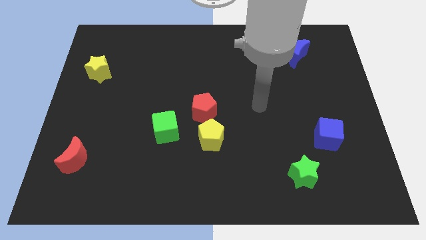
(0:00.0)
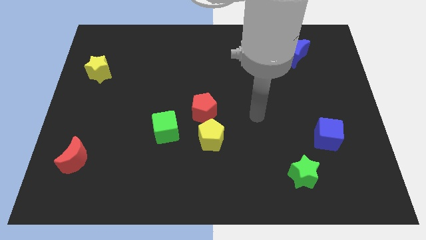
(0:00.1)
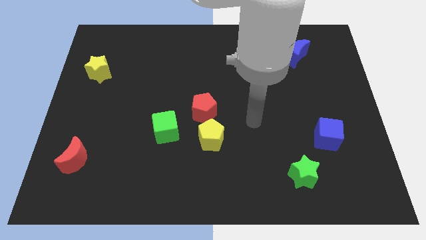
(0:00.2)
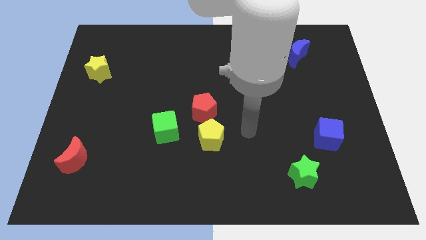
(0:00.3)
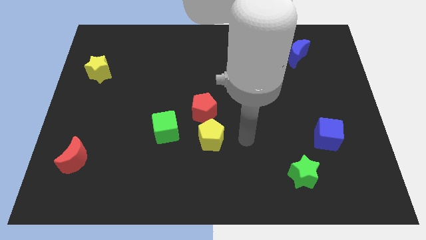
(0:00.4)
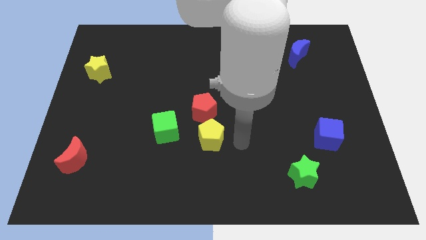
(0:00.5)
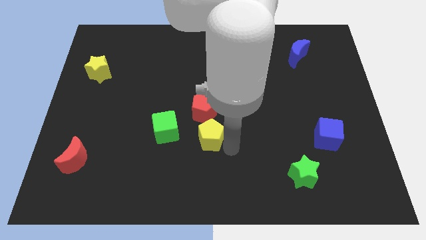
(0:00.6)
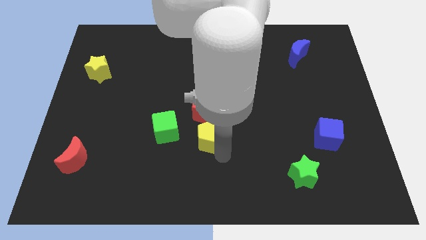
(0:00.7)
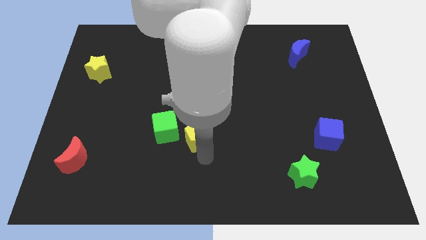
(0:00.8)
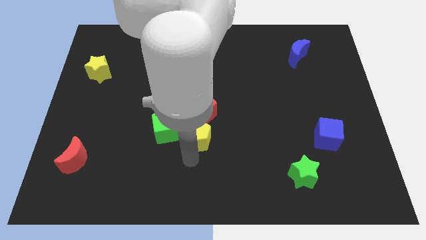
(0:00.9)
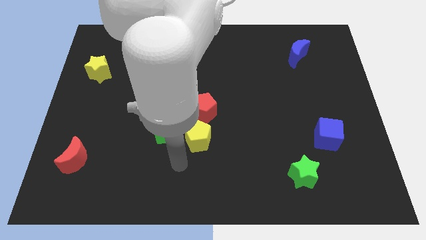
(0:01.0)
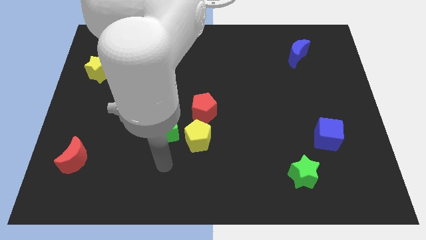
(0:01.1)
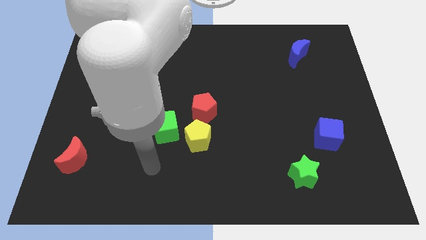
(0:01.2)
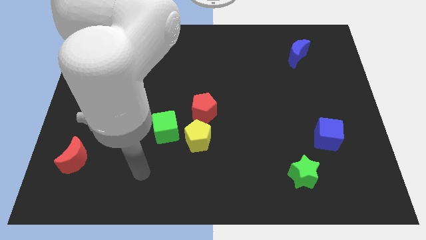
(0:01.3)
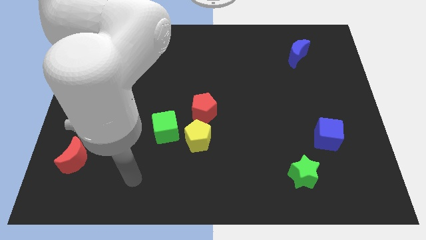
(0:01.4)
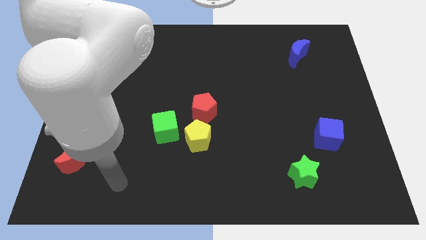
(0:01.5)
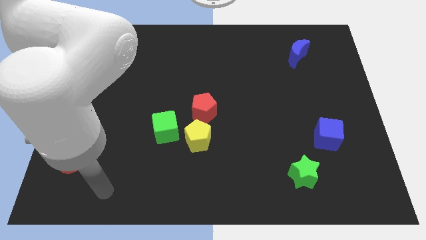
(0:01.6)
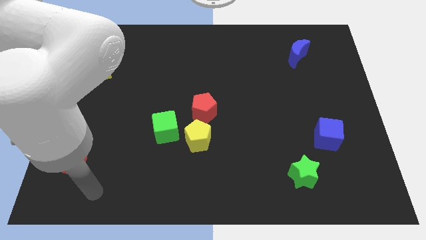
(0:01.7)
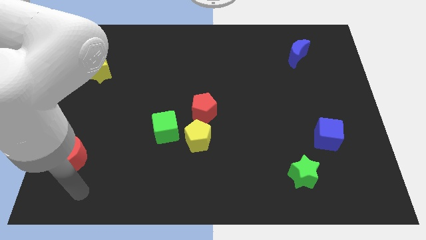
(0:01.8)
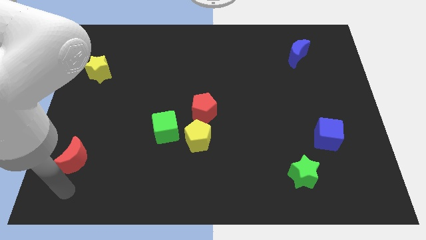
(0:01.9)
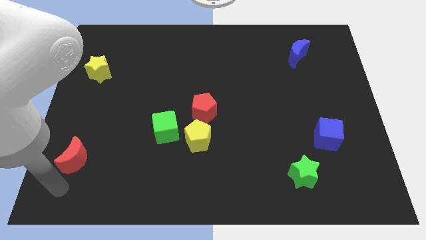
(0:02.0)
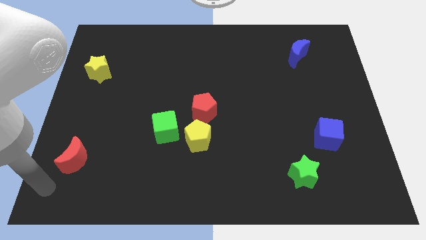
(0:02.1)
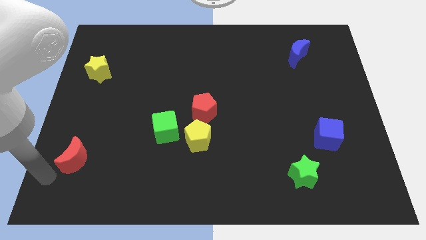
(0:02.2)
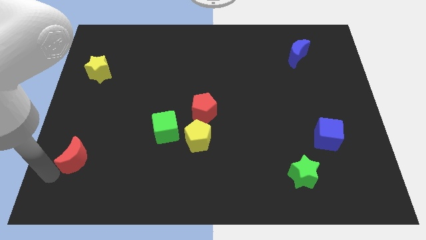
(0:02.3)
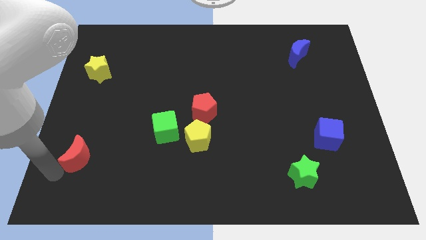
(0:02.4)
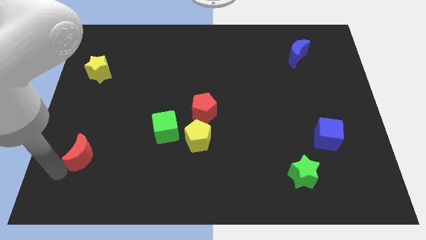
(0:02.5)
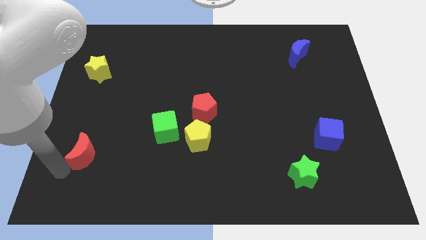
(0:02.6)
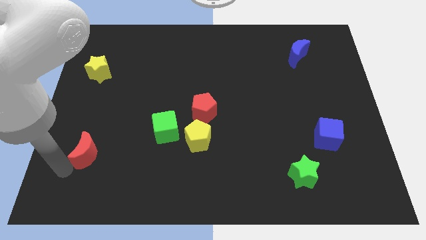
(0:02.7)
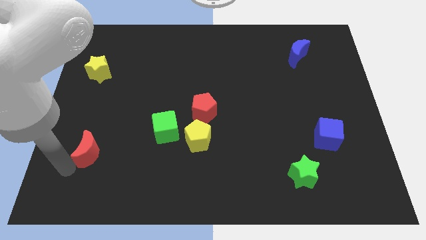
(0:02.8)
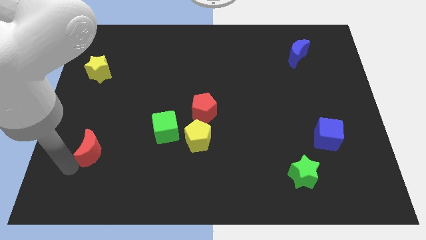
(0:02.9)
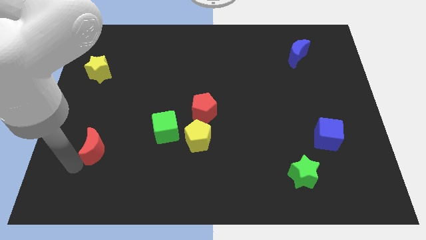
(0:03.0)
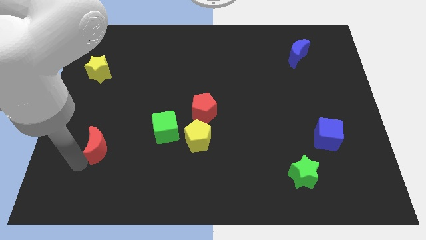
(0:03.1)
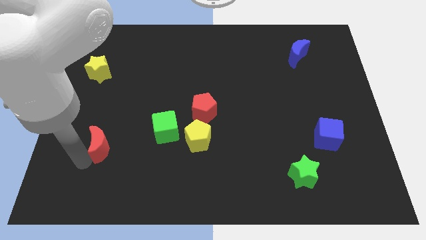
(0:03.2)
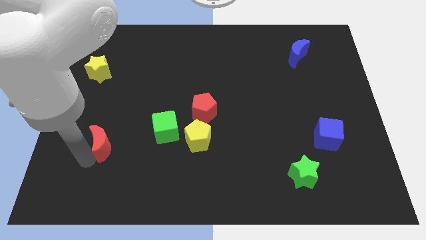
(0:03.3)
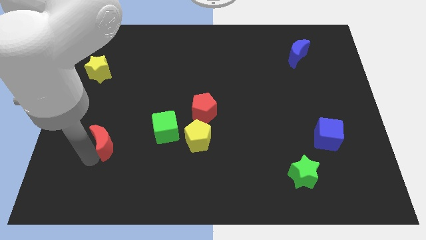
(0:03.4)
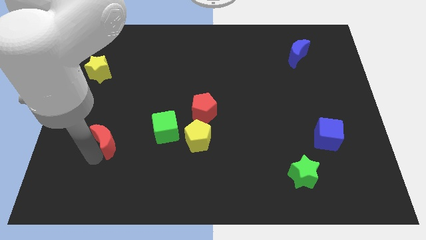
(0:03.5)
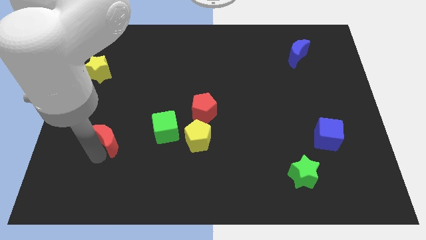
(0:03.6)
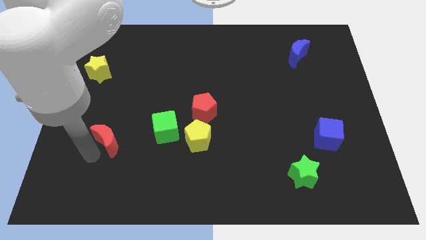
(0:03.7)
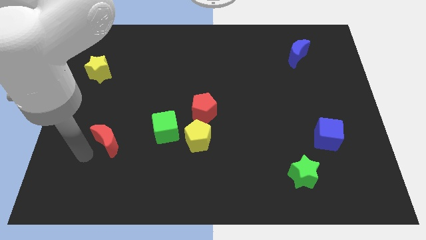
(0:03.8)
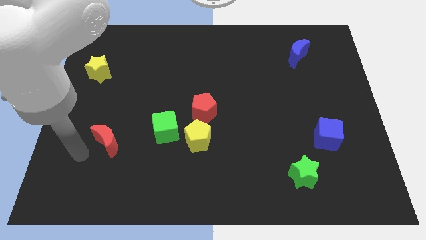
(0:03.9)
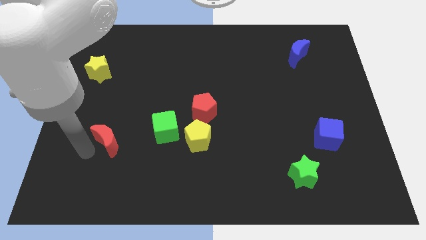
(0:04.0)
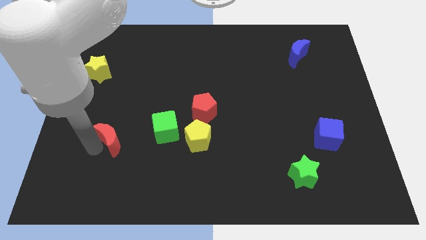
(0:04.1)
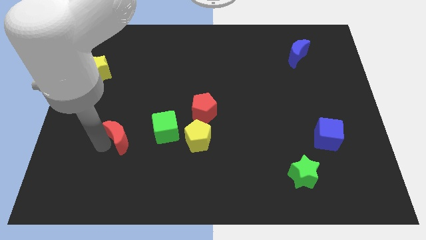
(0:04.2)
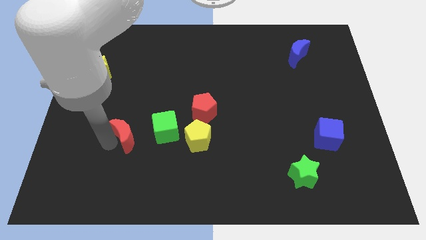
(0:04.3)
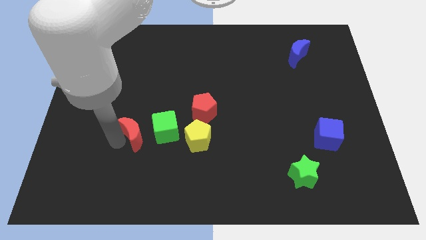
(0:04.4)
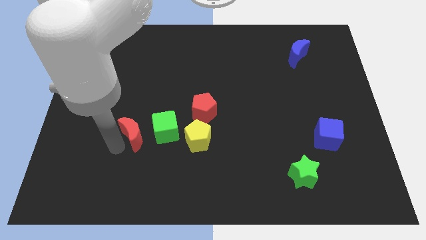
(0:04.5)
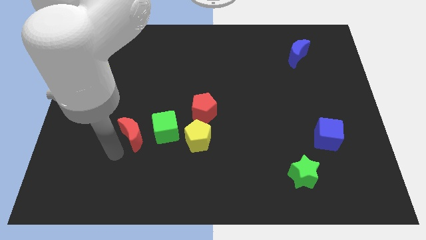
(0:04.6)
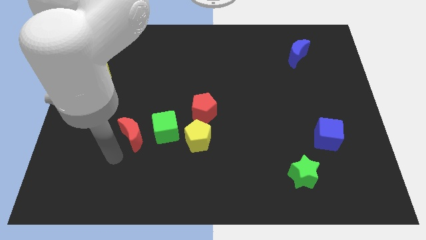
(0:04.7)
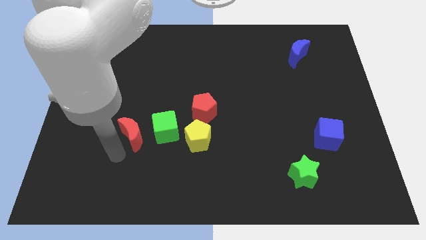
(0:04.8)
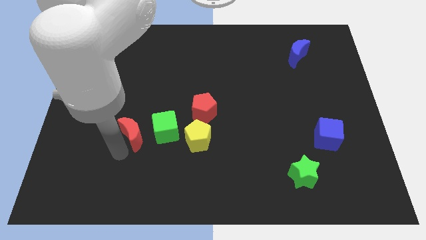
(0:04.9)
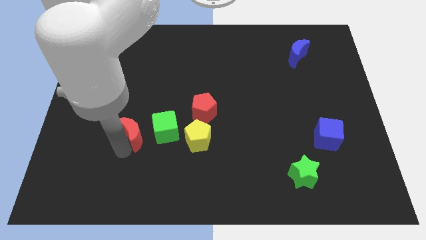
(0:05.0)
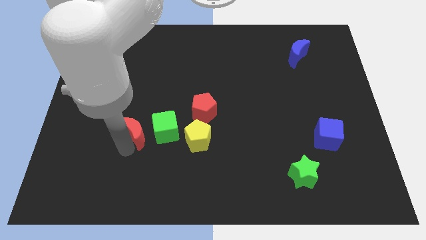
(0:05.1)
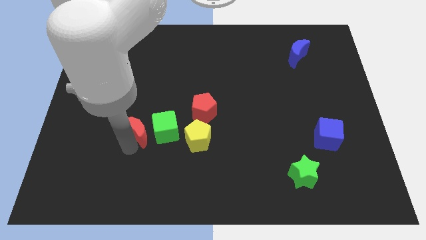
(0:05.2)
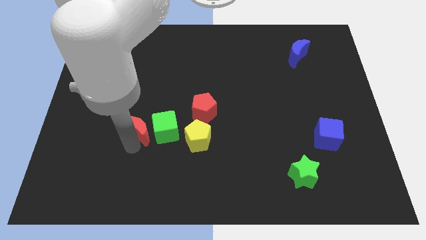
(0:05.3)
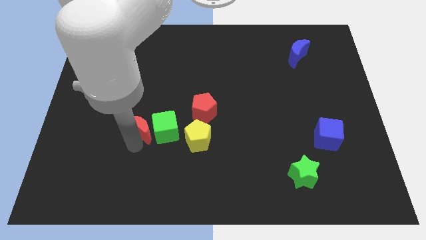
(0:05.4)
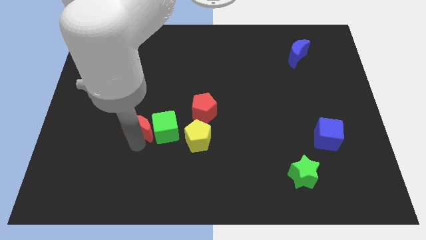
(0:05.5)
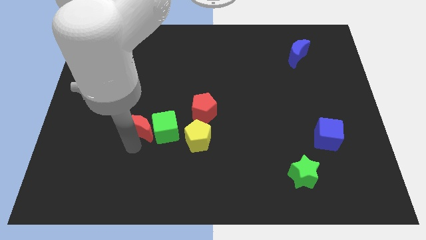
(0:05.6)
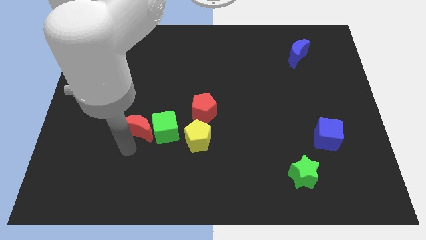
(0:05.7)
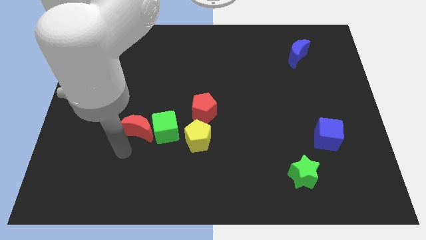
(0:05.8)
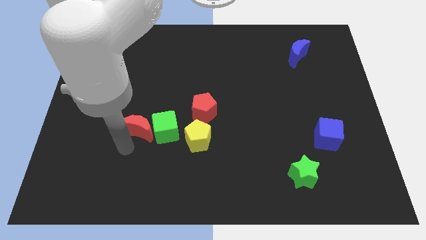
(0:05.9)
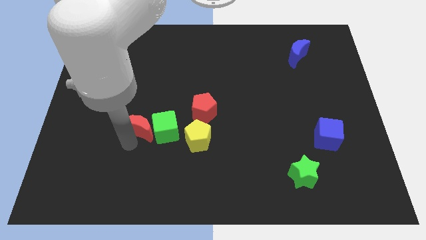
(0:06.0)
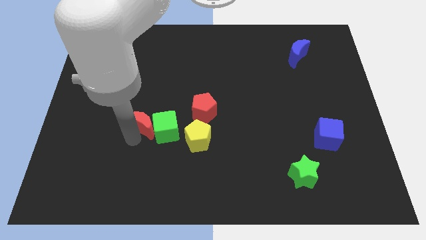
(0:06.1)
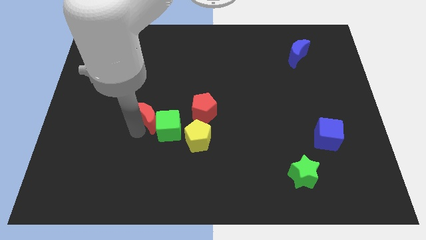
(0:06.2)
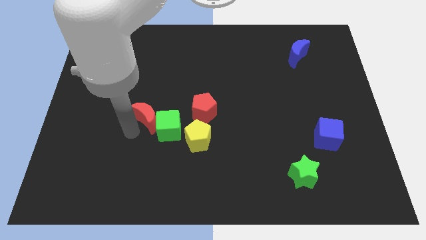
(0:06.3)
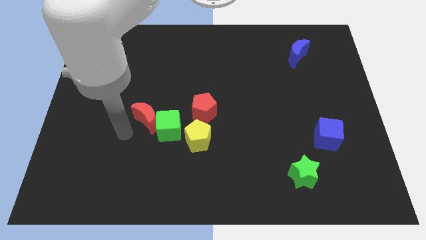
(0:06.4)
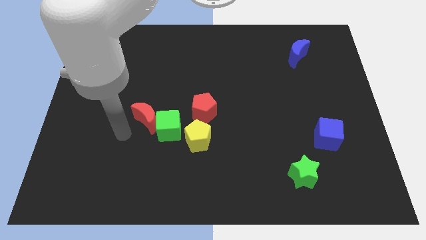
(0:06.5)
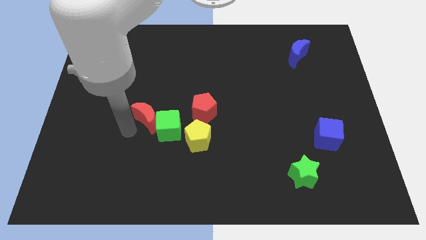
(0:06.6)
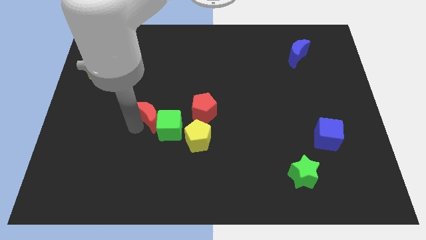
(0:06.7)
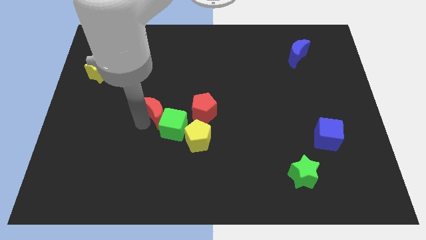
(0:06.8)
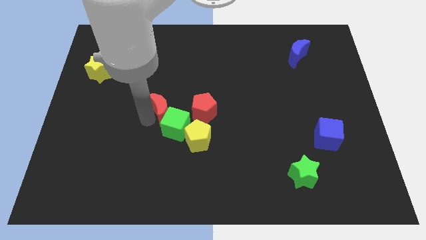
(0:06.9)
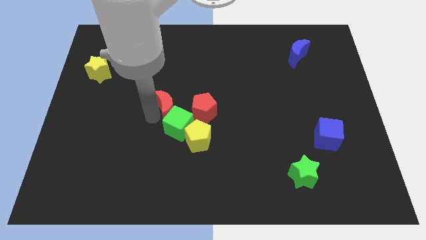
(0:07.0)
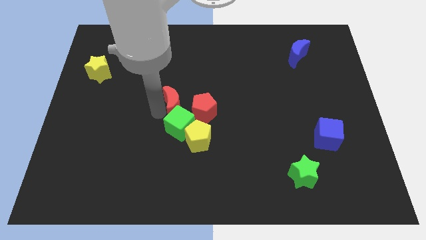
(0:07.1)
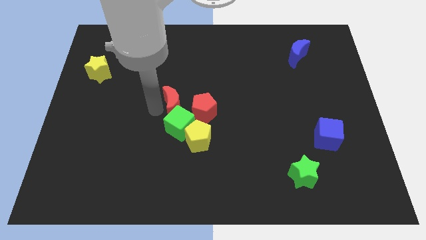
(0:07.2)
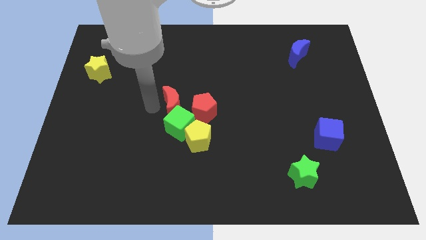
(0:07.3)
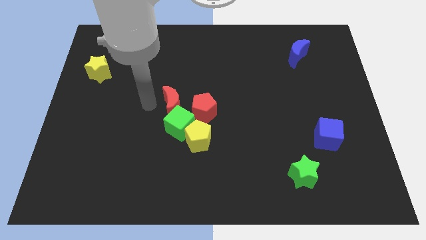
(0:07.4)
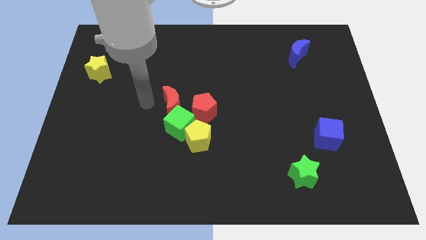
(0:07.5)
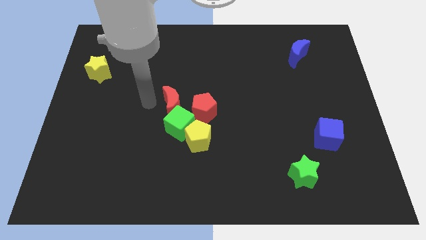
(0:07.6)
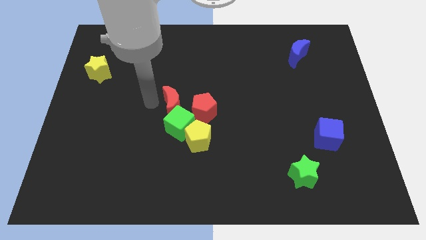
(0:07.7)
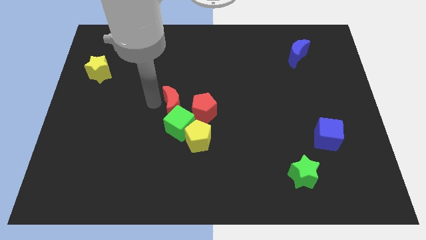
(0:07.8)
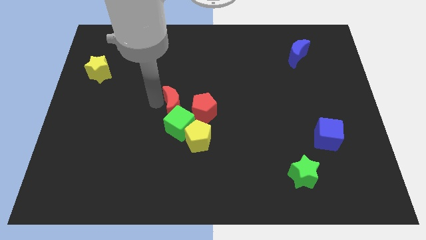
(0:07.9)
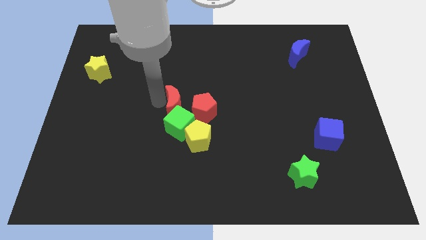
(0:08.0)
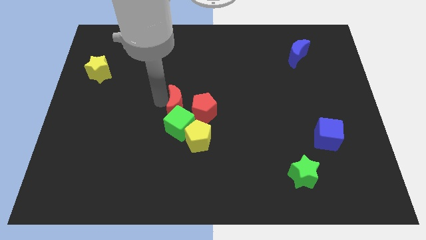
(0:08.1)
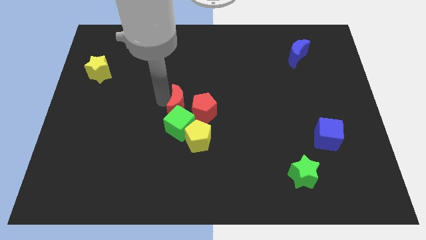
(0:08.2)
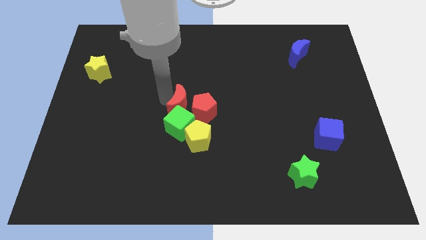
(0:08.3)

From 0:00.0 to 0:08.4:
slide the red moon next to the red pentagon
